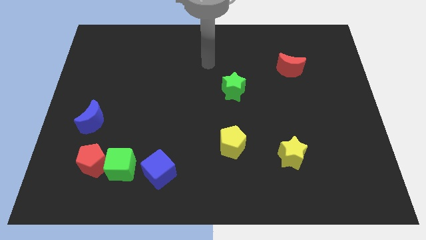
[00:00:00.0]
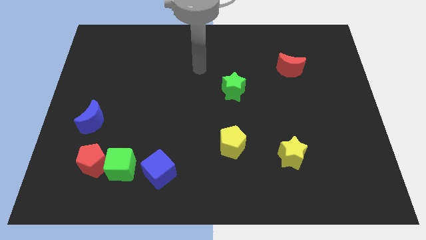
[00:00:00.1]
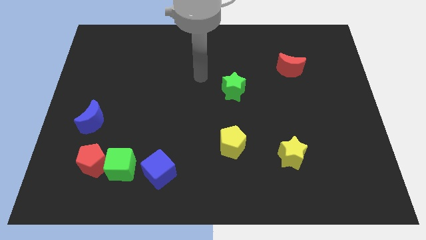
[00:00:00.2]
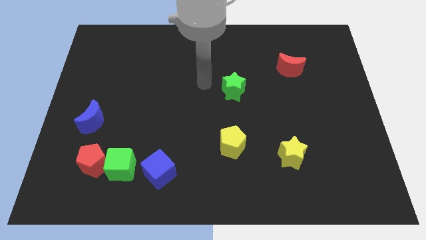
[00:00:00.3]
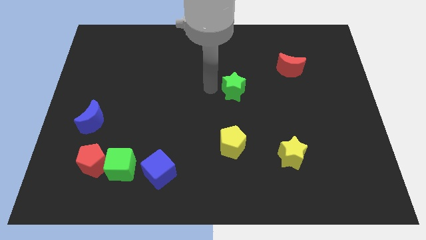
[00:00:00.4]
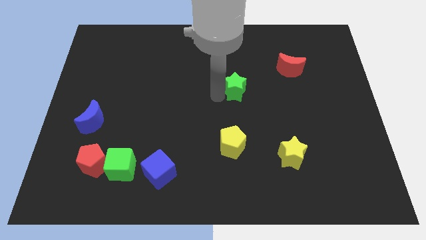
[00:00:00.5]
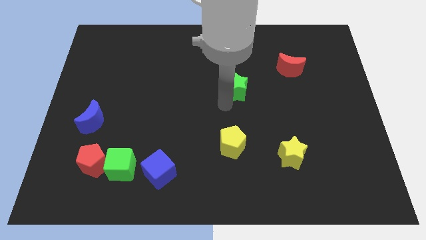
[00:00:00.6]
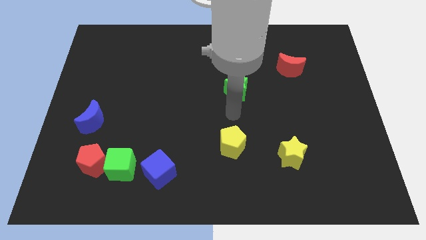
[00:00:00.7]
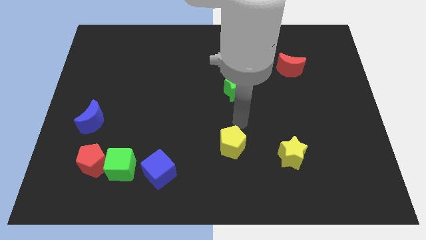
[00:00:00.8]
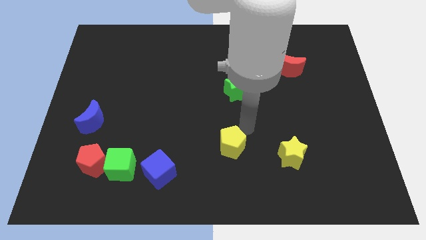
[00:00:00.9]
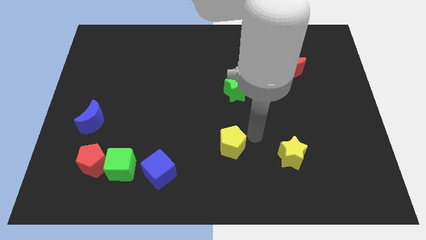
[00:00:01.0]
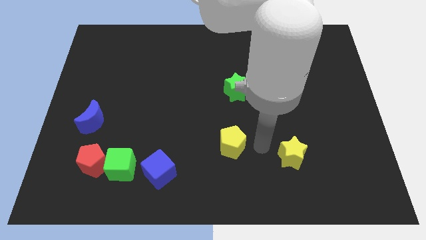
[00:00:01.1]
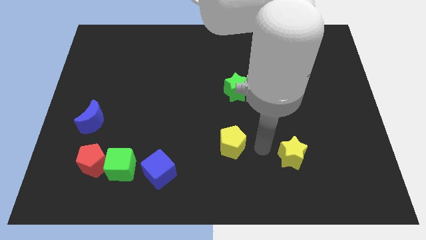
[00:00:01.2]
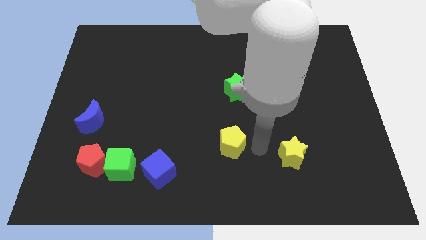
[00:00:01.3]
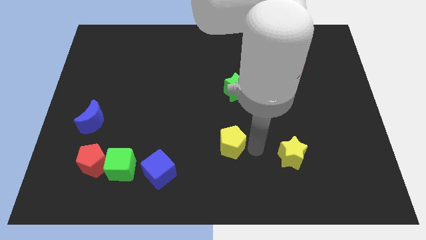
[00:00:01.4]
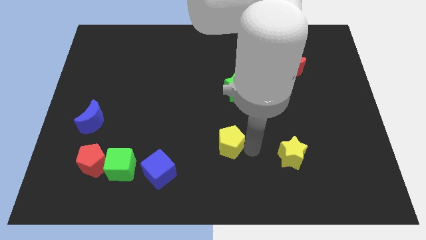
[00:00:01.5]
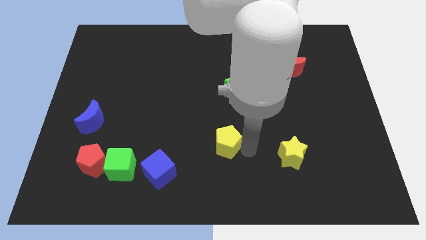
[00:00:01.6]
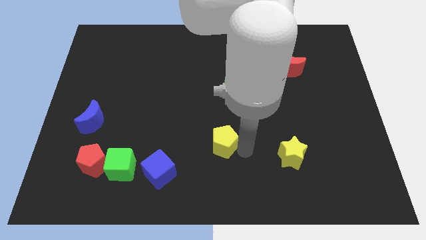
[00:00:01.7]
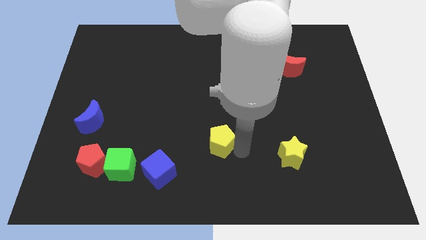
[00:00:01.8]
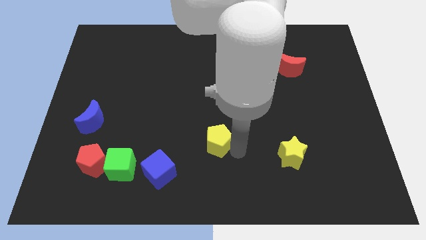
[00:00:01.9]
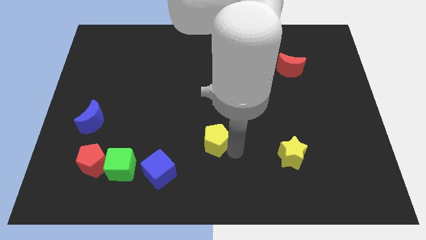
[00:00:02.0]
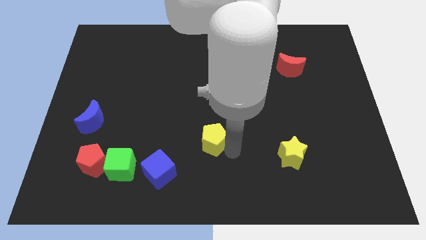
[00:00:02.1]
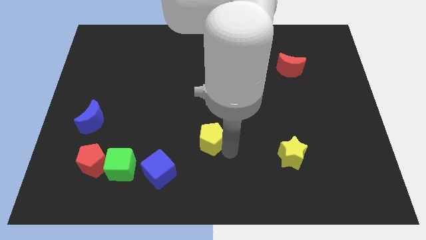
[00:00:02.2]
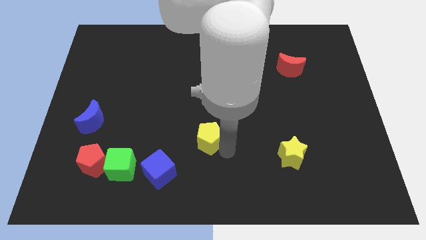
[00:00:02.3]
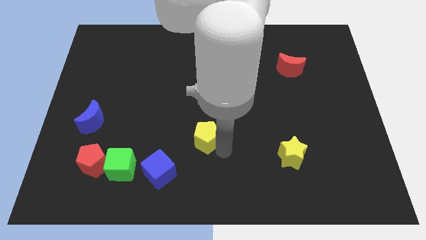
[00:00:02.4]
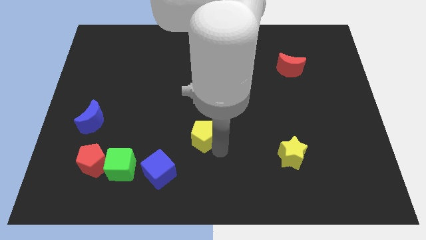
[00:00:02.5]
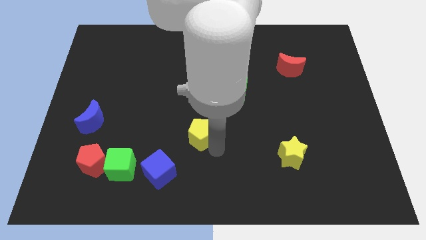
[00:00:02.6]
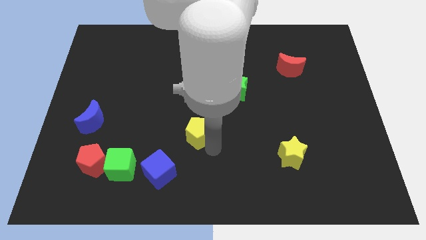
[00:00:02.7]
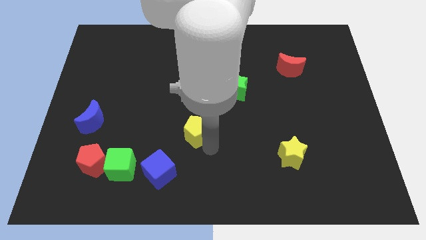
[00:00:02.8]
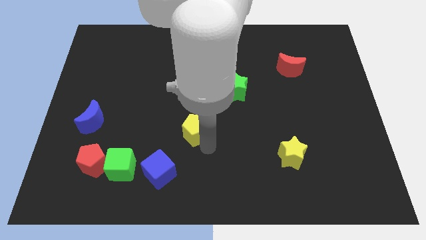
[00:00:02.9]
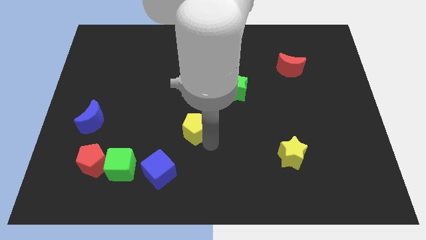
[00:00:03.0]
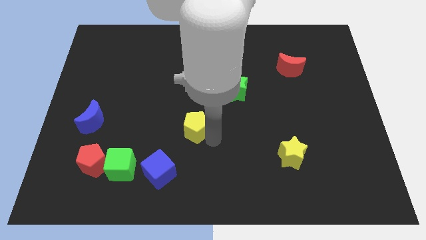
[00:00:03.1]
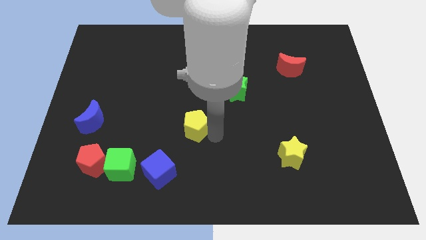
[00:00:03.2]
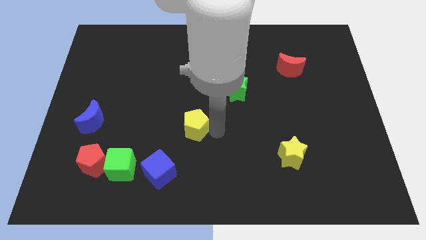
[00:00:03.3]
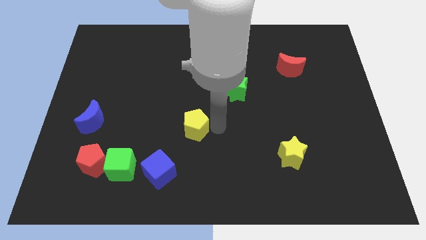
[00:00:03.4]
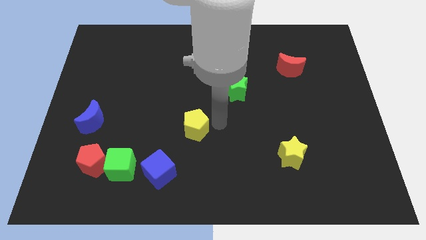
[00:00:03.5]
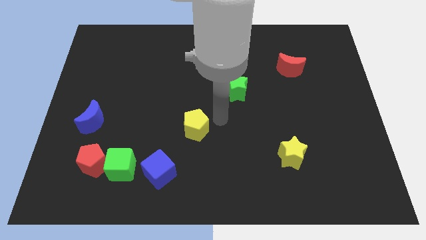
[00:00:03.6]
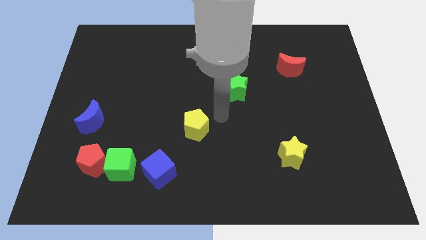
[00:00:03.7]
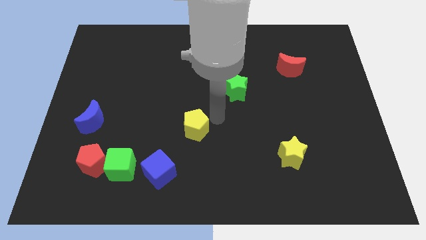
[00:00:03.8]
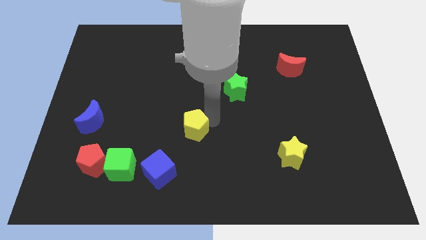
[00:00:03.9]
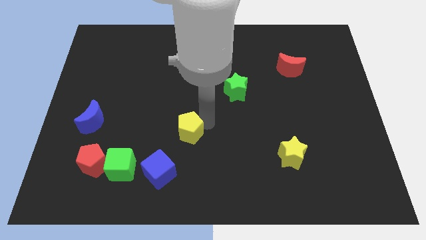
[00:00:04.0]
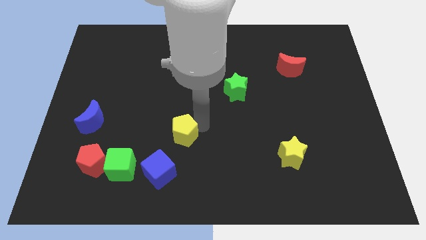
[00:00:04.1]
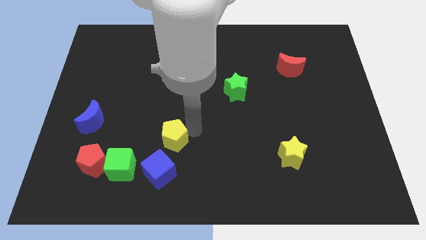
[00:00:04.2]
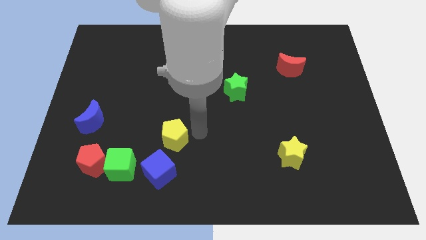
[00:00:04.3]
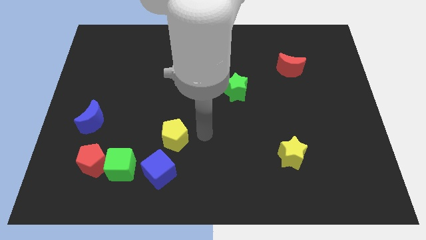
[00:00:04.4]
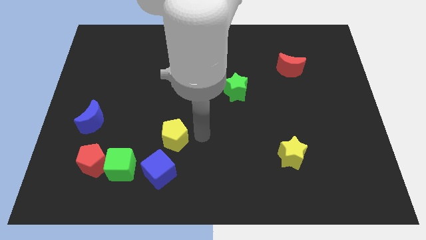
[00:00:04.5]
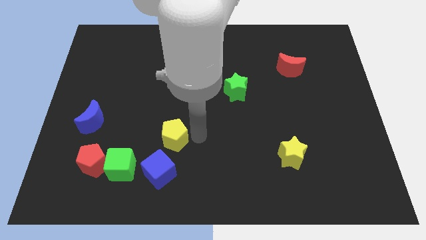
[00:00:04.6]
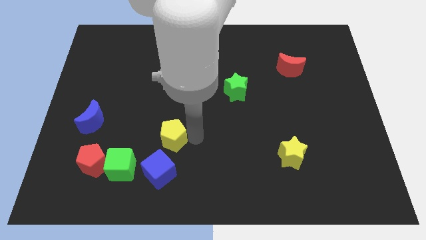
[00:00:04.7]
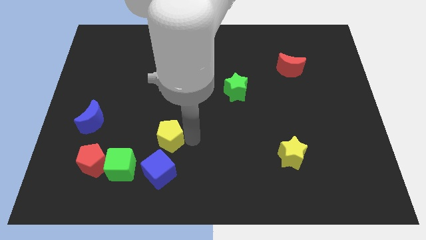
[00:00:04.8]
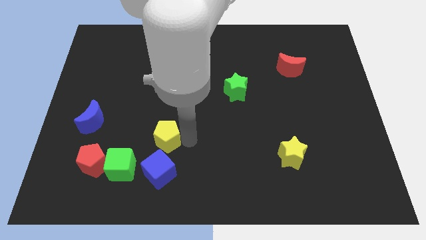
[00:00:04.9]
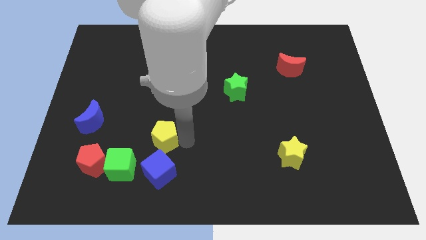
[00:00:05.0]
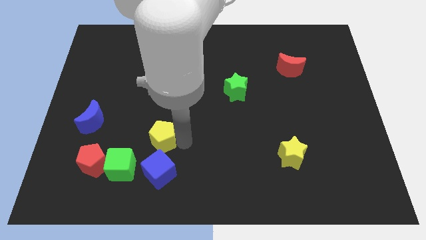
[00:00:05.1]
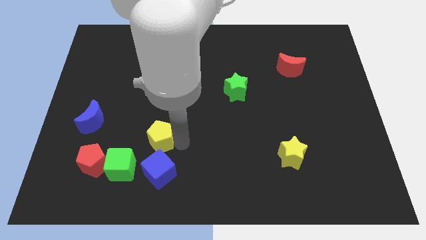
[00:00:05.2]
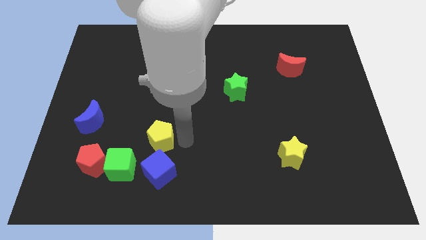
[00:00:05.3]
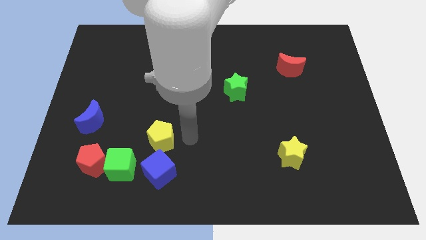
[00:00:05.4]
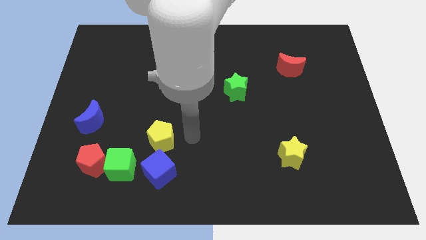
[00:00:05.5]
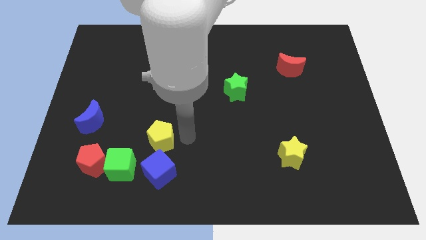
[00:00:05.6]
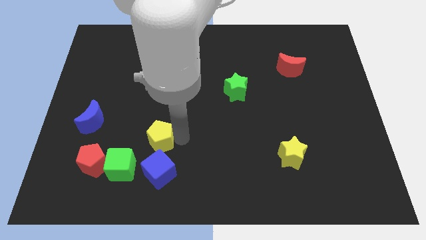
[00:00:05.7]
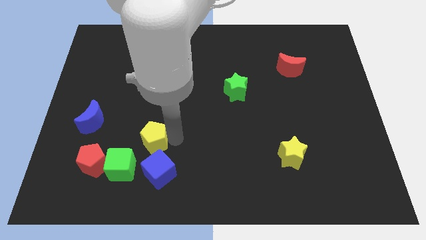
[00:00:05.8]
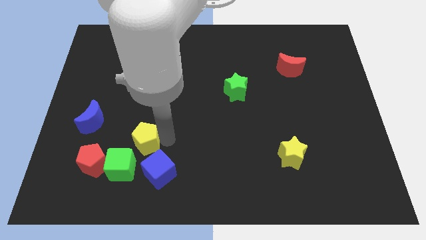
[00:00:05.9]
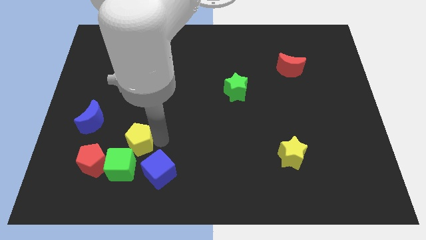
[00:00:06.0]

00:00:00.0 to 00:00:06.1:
move the yellow pentagon left

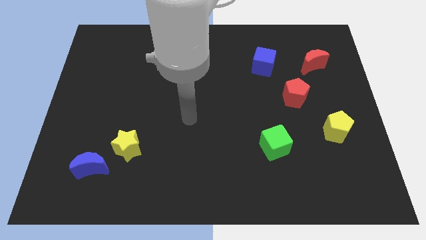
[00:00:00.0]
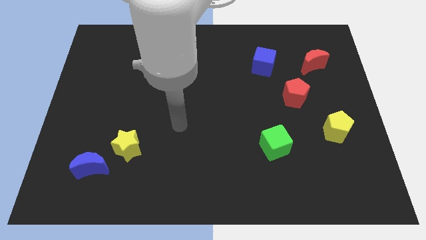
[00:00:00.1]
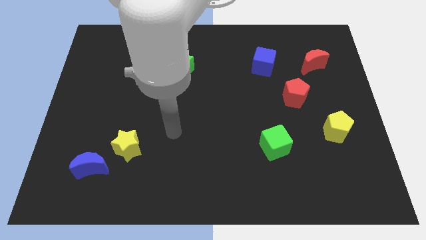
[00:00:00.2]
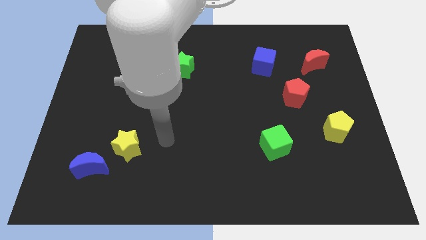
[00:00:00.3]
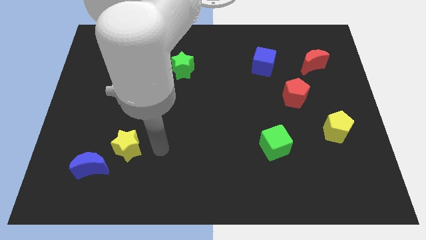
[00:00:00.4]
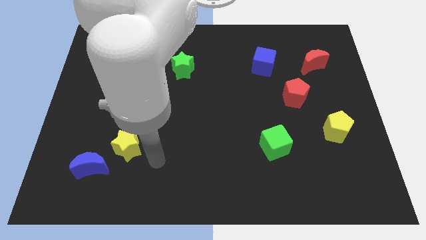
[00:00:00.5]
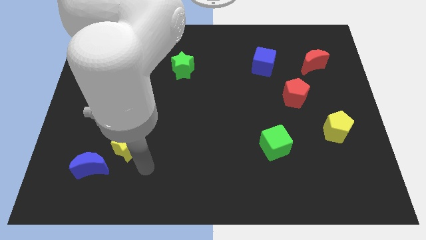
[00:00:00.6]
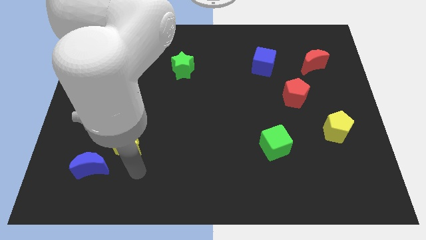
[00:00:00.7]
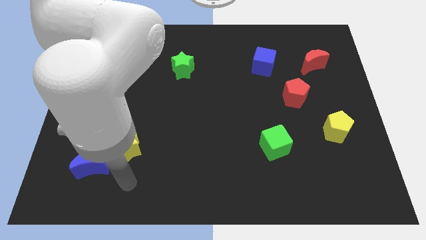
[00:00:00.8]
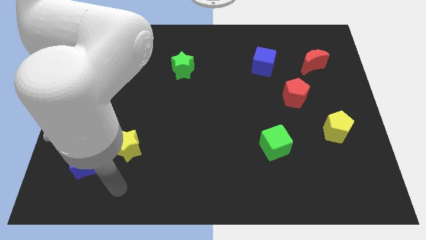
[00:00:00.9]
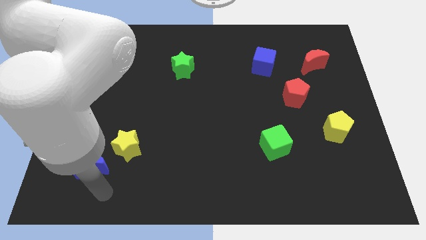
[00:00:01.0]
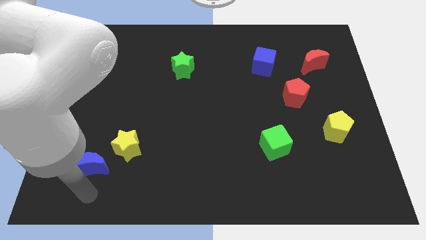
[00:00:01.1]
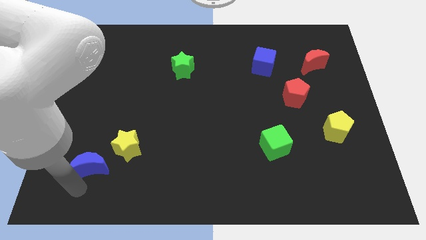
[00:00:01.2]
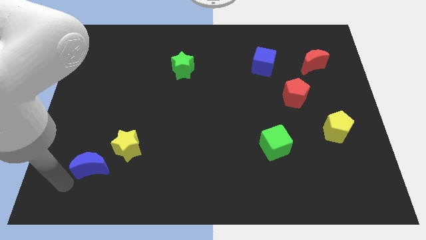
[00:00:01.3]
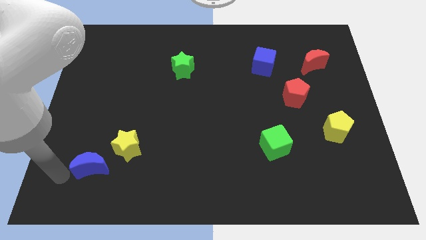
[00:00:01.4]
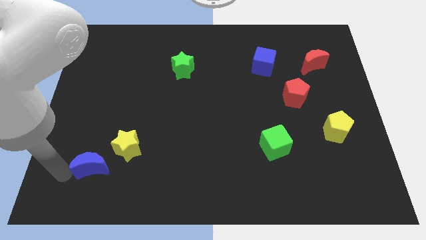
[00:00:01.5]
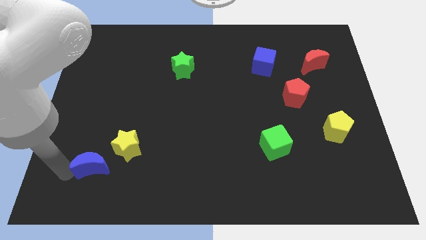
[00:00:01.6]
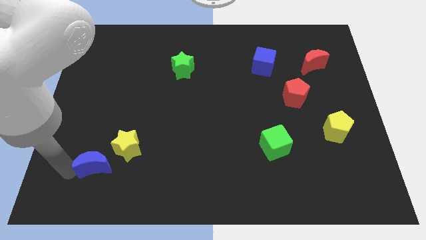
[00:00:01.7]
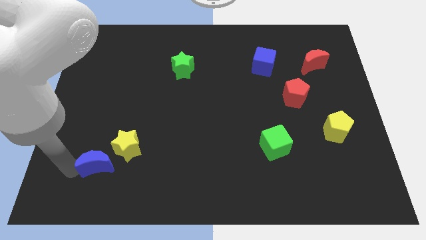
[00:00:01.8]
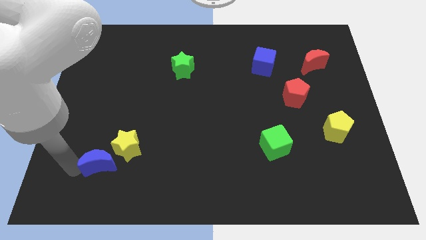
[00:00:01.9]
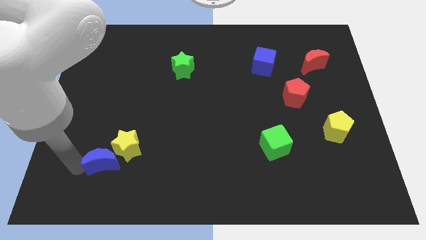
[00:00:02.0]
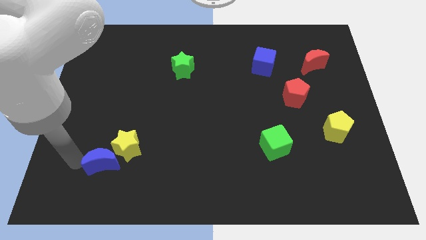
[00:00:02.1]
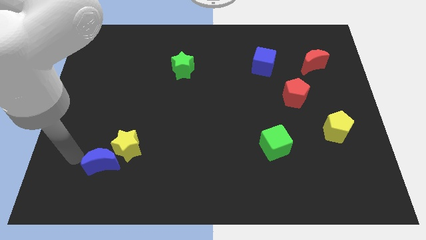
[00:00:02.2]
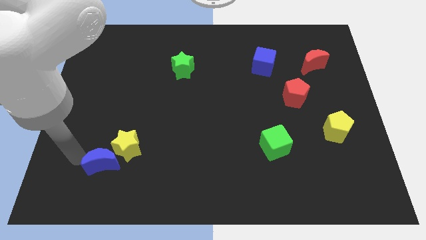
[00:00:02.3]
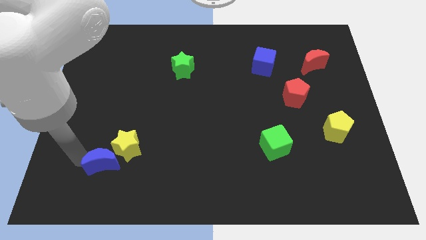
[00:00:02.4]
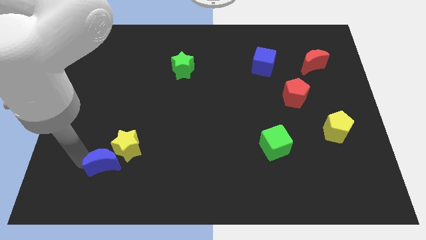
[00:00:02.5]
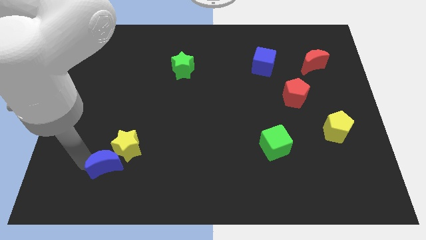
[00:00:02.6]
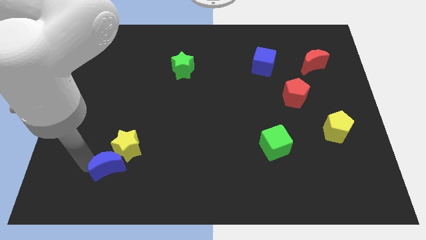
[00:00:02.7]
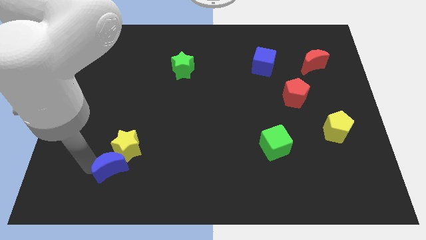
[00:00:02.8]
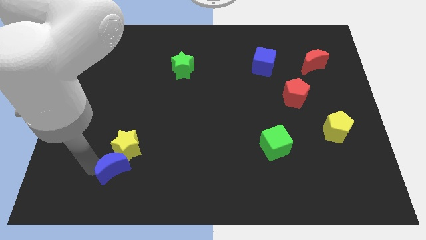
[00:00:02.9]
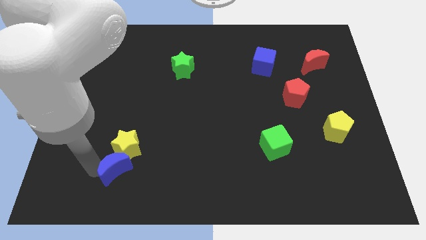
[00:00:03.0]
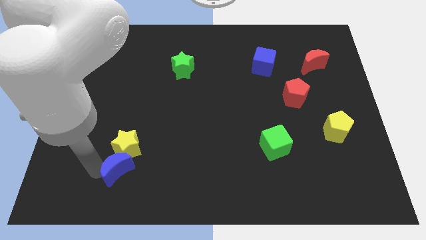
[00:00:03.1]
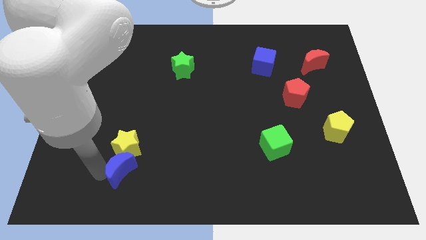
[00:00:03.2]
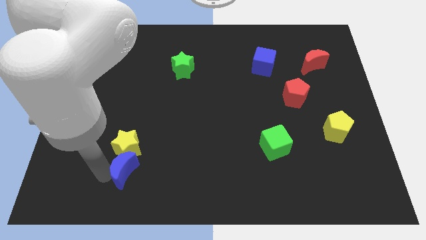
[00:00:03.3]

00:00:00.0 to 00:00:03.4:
move the blue moon right slightly
